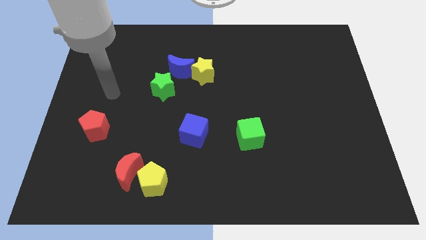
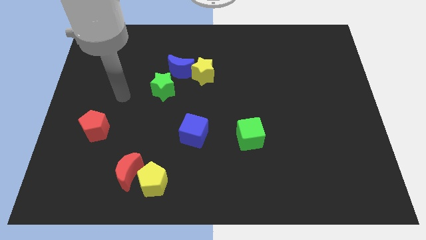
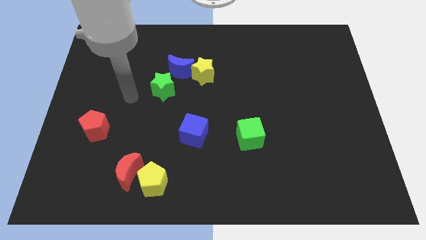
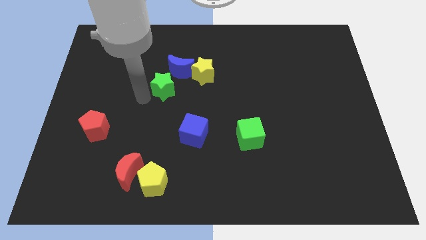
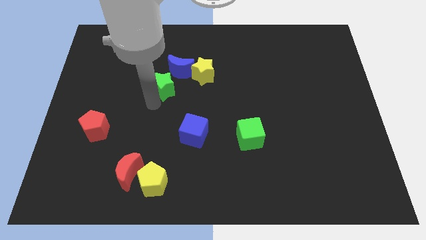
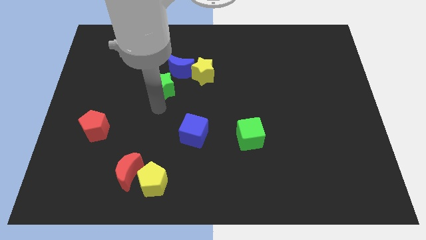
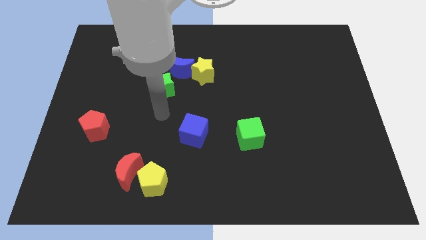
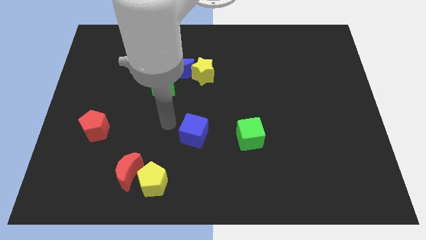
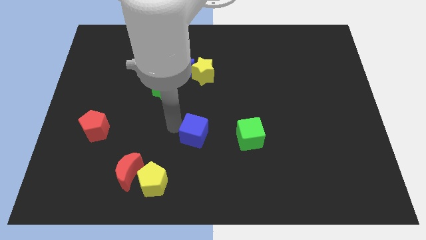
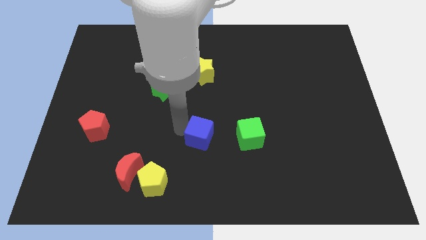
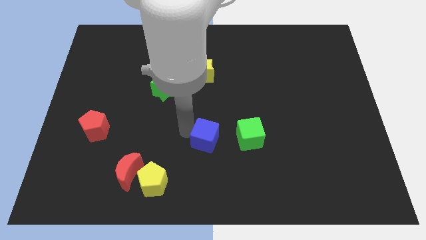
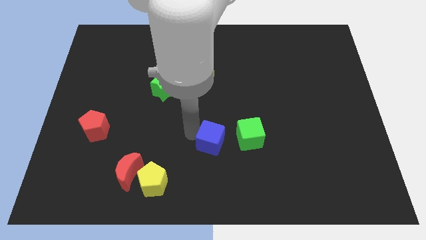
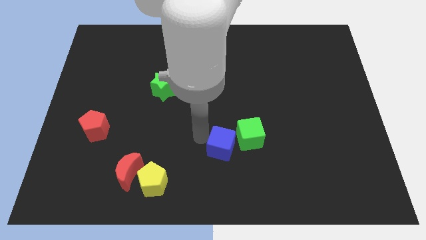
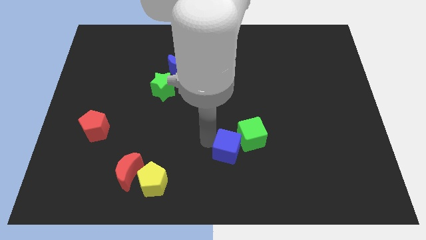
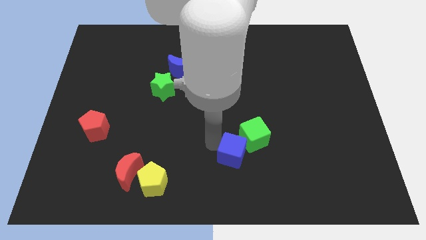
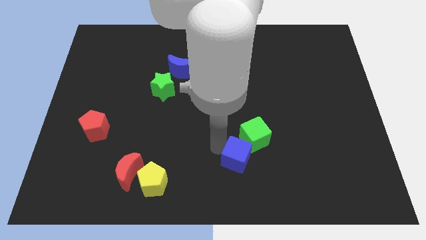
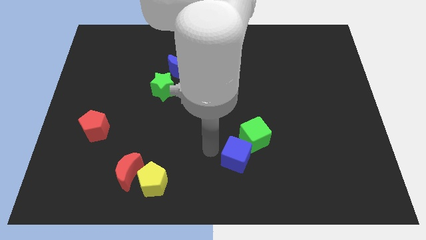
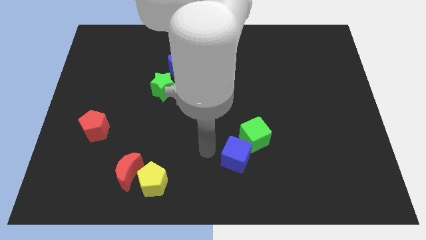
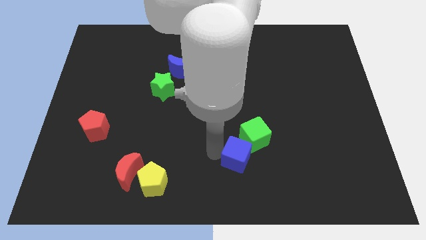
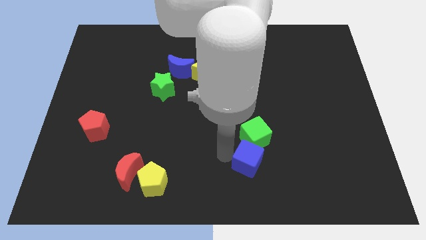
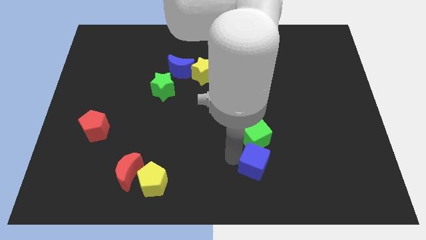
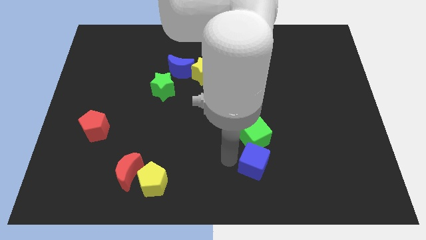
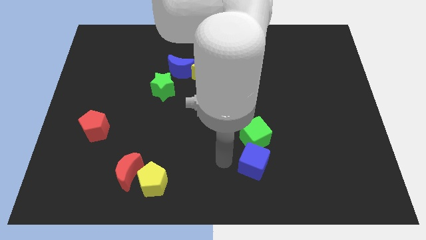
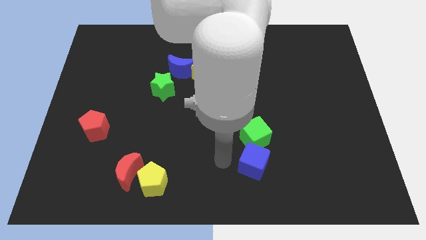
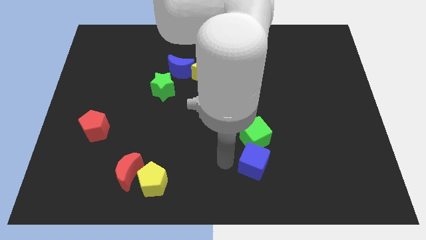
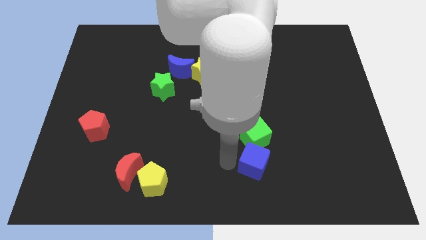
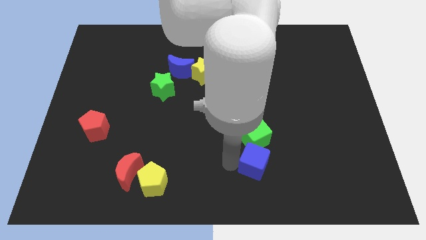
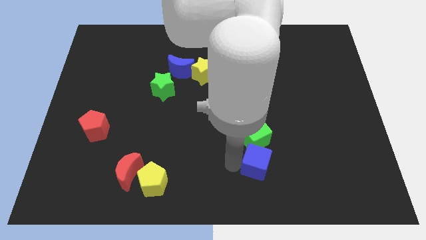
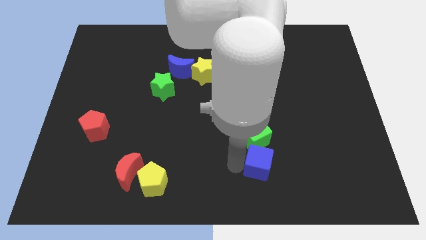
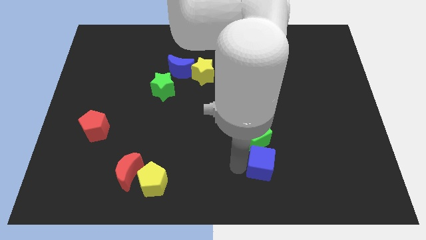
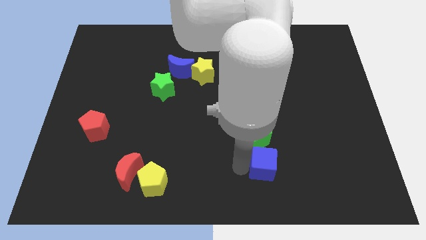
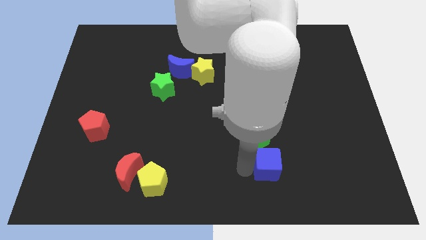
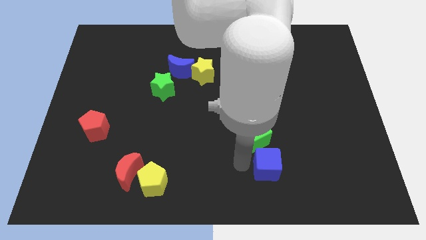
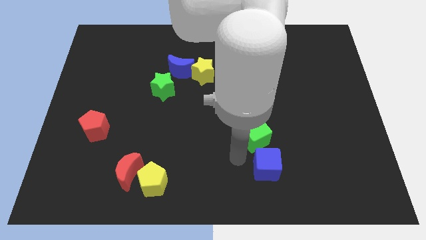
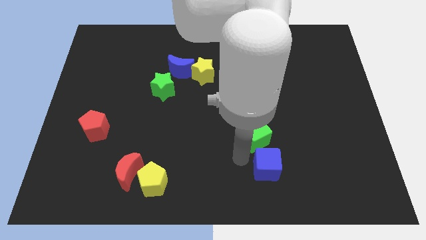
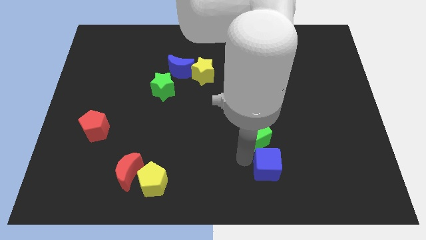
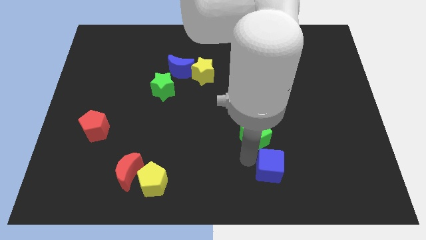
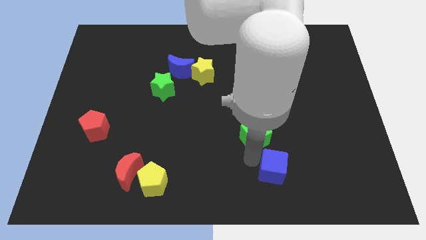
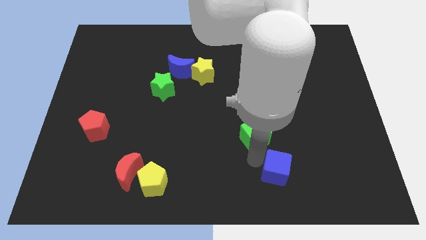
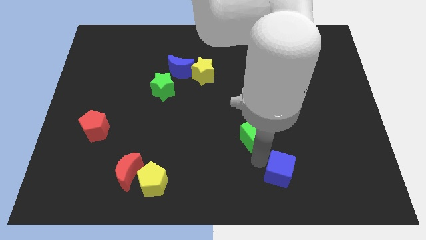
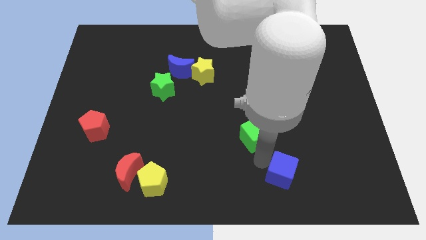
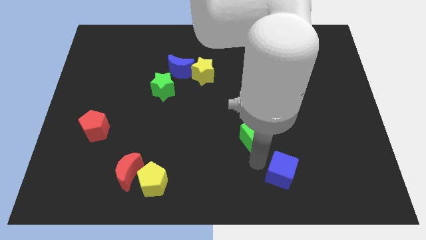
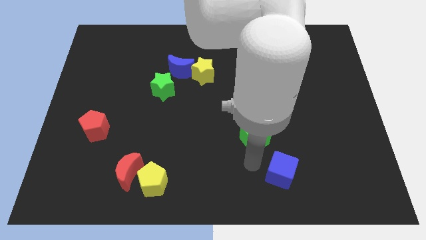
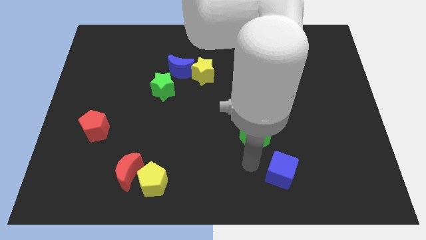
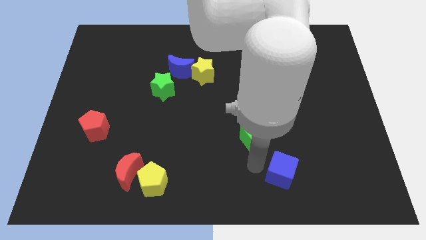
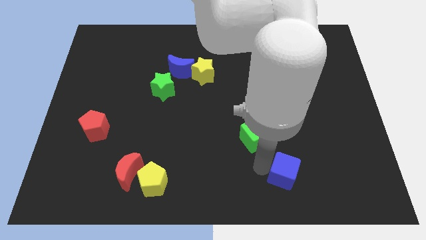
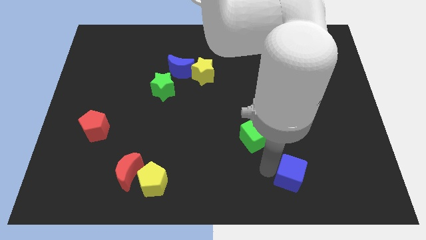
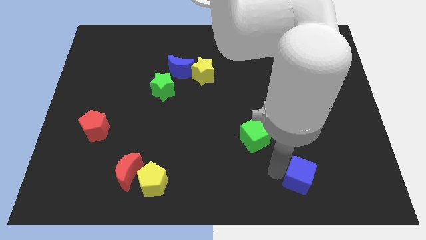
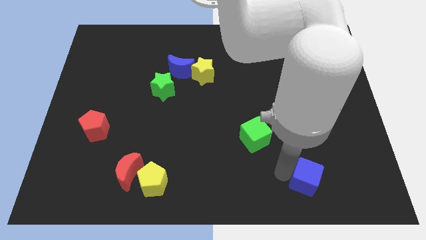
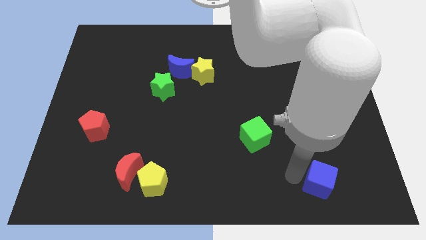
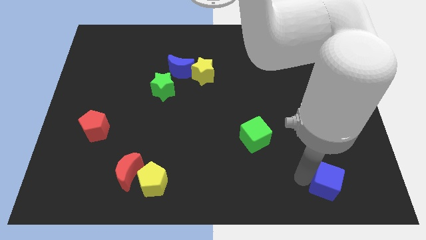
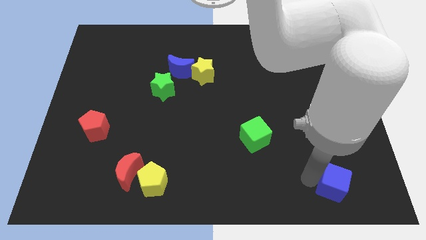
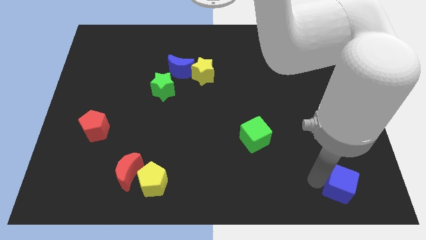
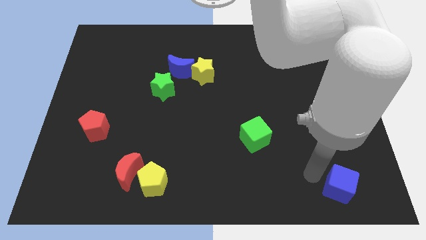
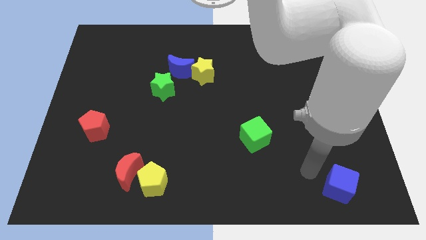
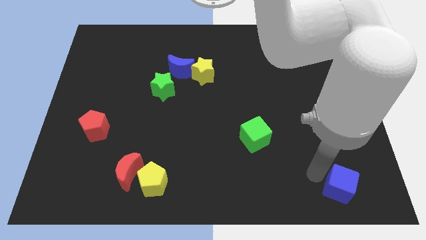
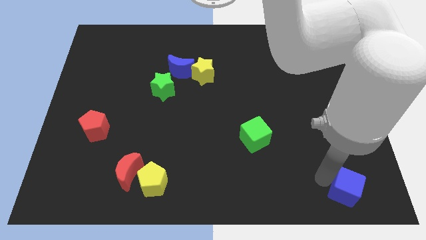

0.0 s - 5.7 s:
put the blue cube to the lower right corner

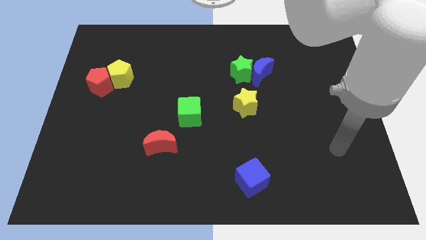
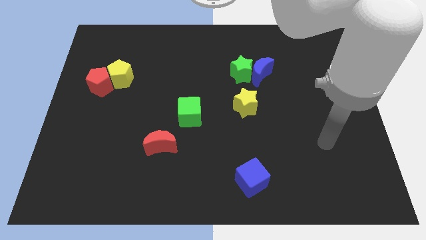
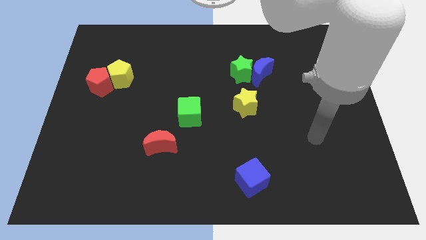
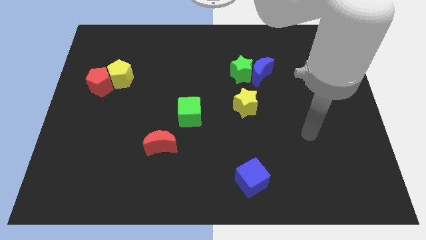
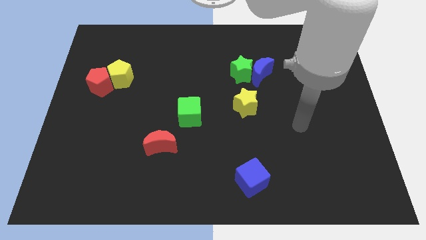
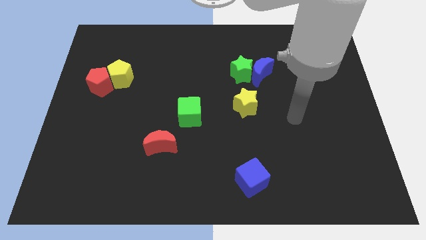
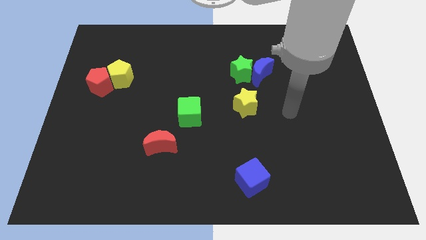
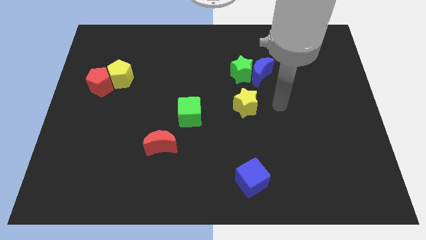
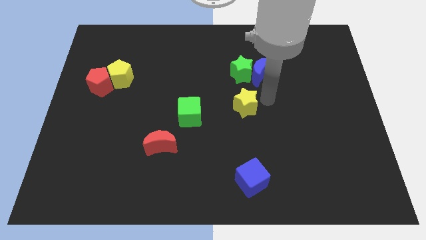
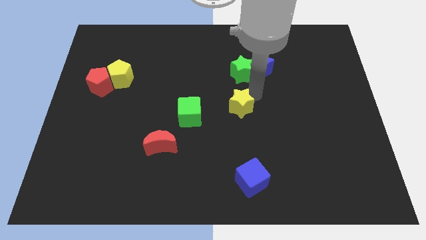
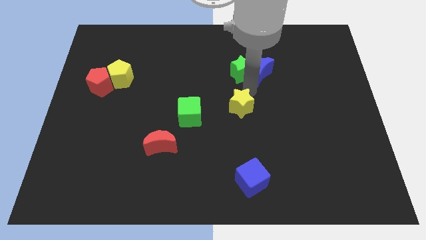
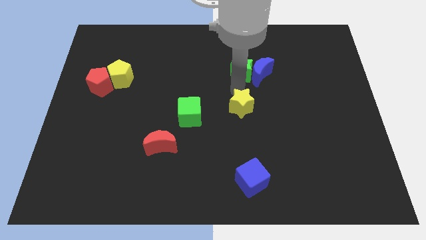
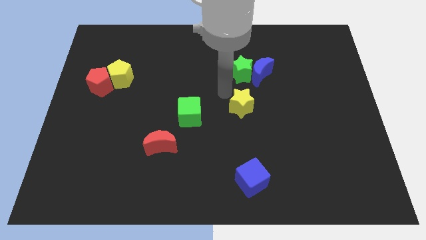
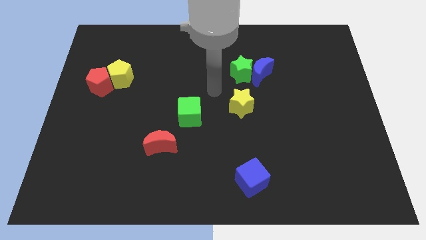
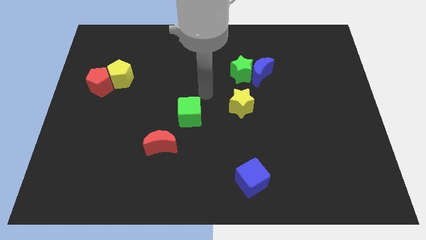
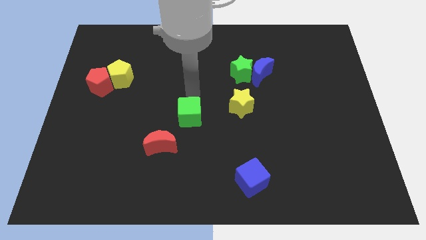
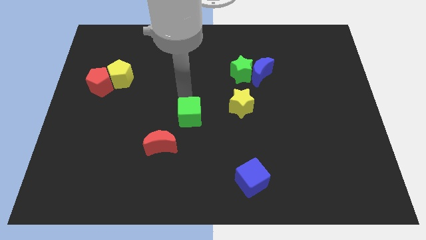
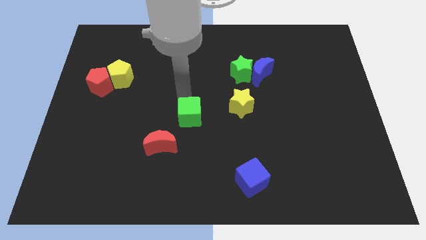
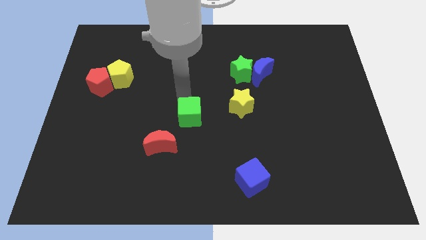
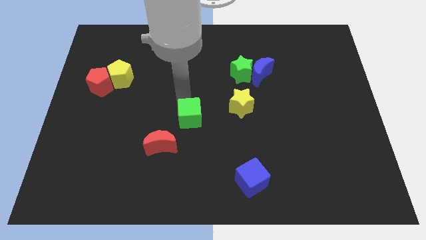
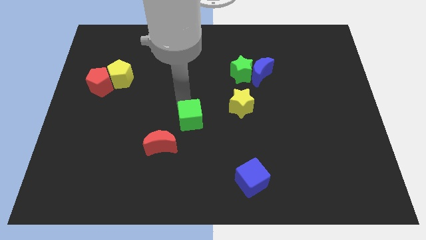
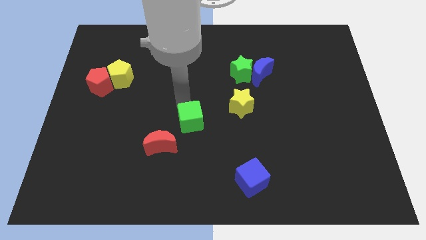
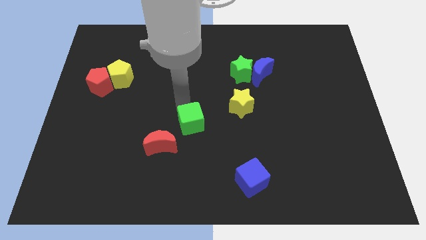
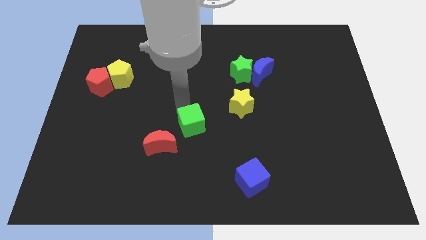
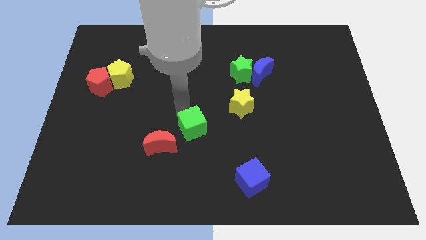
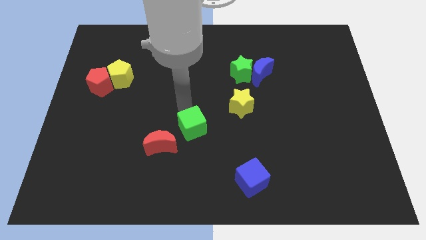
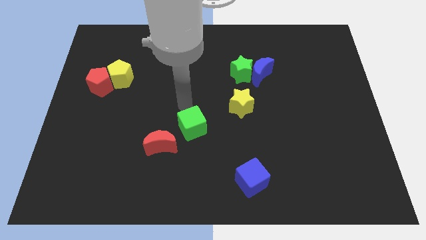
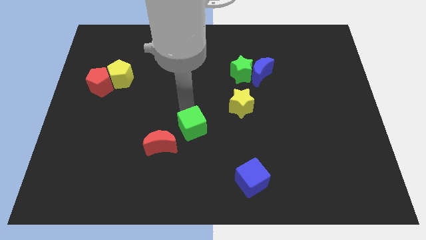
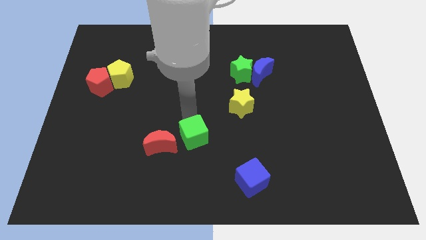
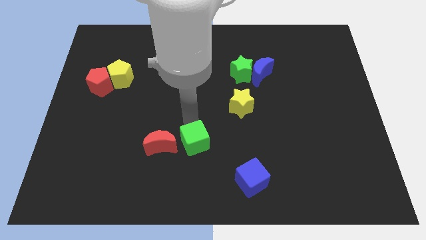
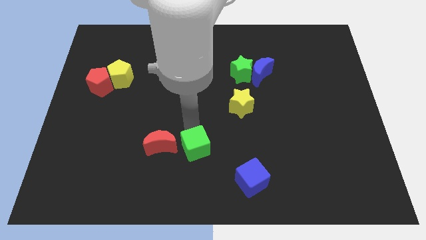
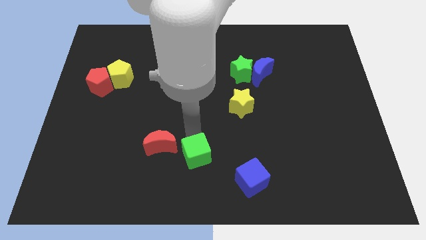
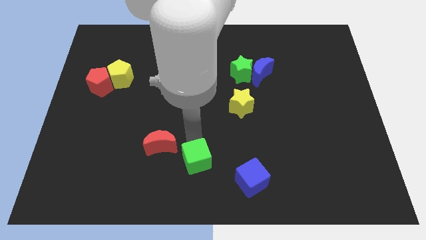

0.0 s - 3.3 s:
push the green cube to the bottom side
